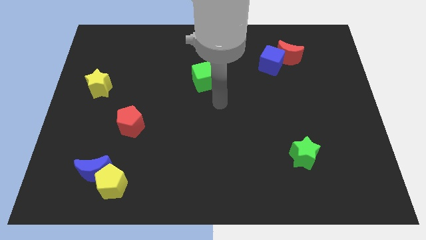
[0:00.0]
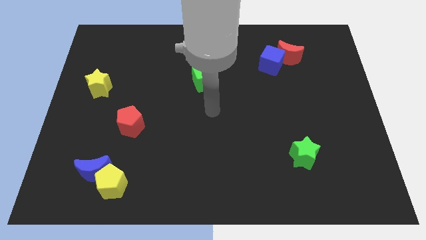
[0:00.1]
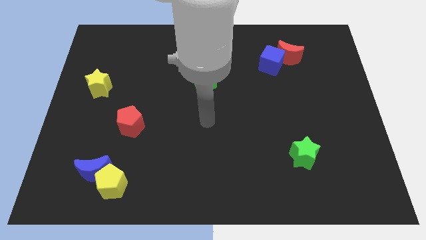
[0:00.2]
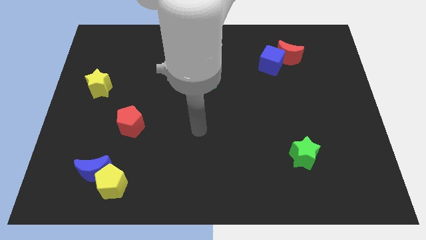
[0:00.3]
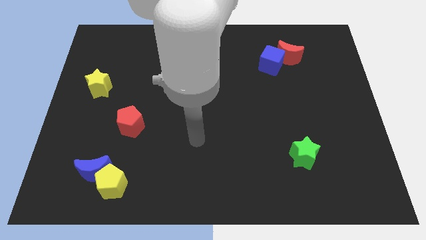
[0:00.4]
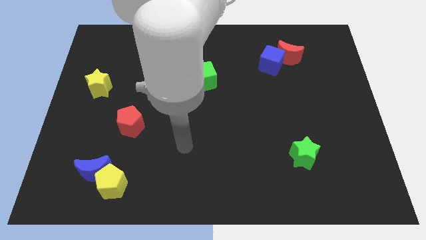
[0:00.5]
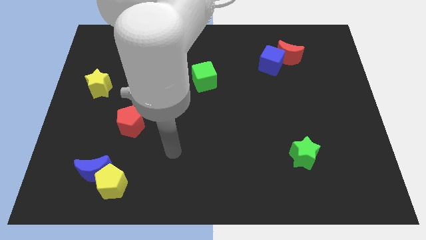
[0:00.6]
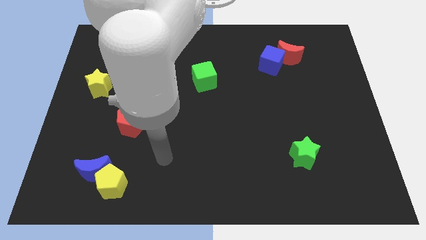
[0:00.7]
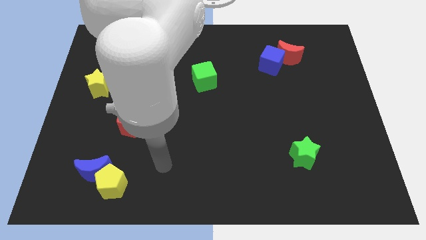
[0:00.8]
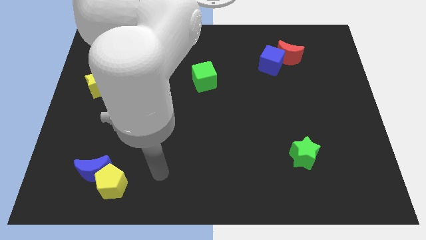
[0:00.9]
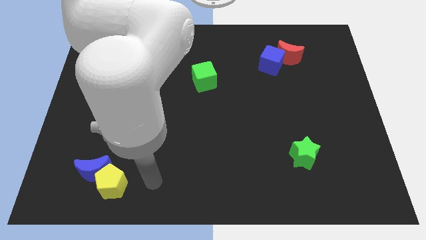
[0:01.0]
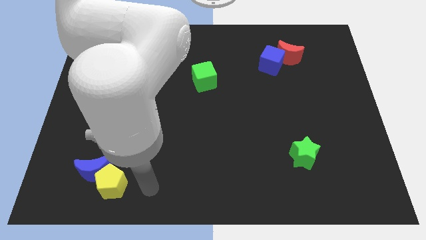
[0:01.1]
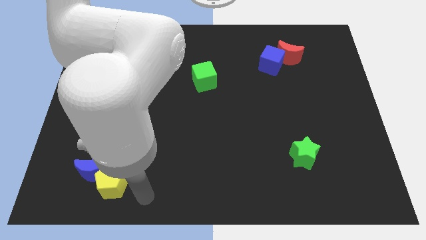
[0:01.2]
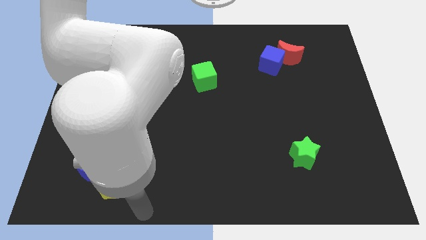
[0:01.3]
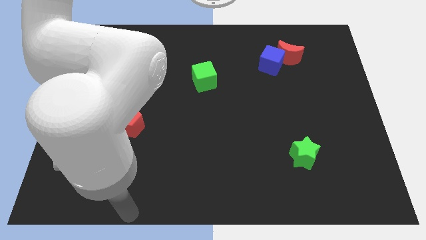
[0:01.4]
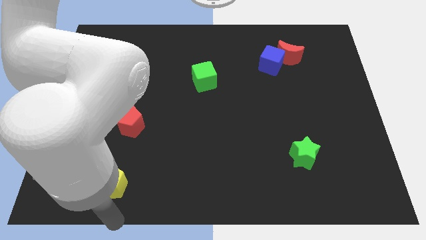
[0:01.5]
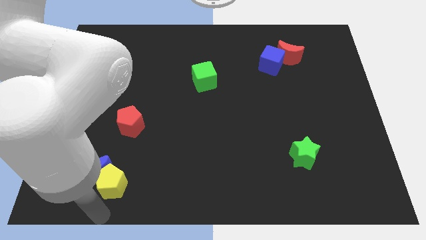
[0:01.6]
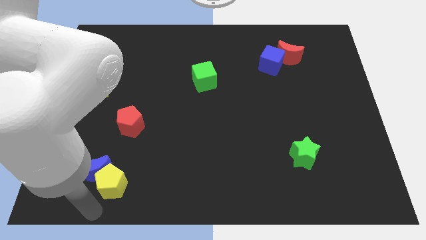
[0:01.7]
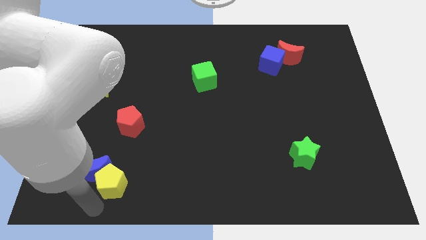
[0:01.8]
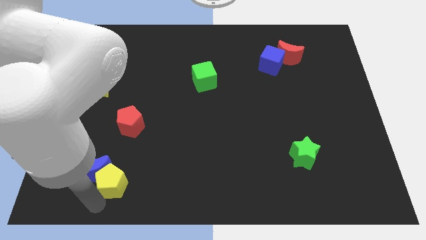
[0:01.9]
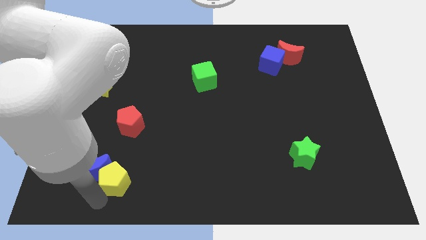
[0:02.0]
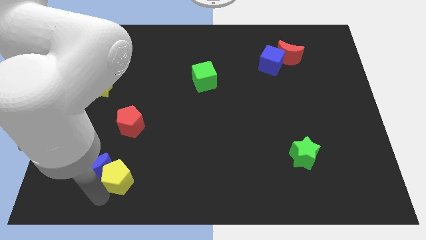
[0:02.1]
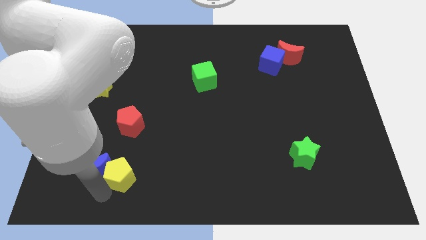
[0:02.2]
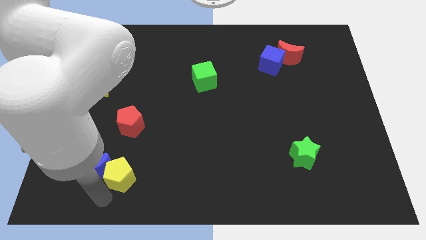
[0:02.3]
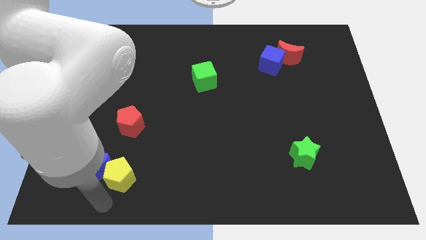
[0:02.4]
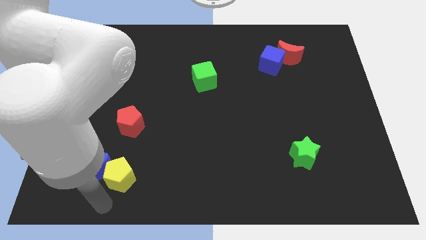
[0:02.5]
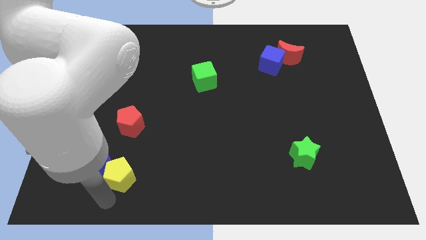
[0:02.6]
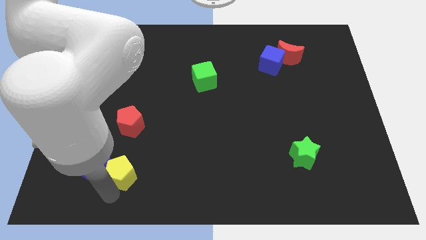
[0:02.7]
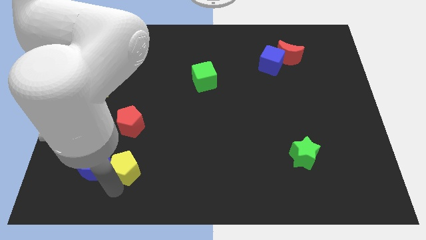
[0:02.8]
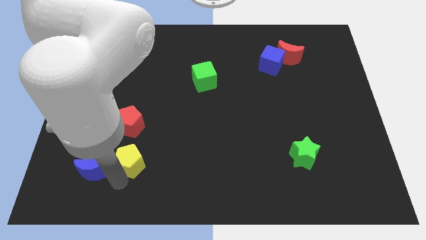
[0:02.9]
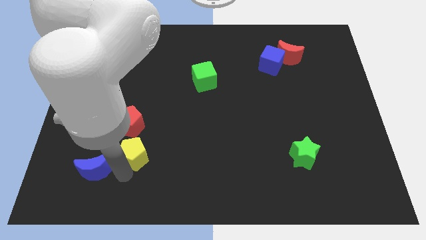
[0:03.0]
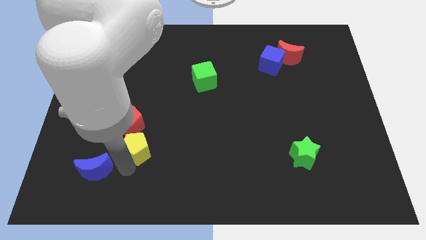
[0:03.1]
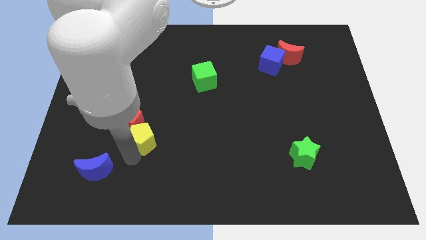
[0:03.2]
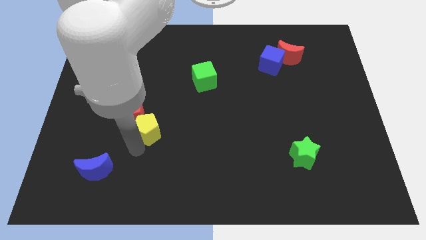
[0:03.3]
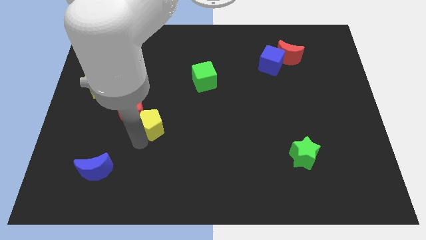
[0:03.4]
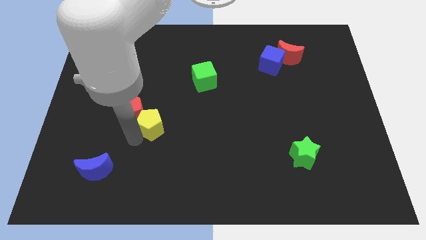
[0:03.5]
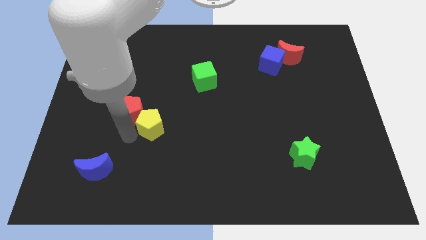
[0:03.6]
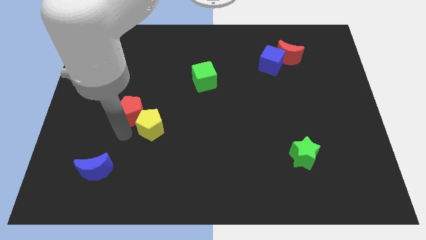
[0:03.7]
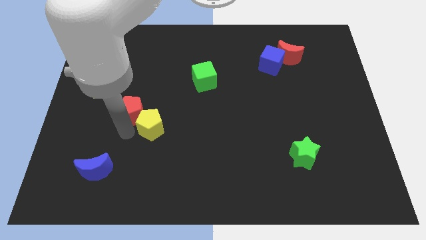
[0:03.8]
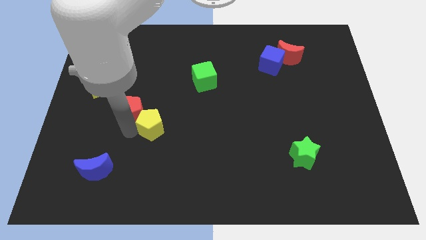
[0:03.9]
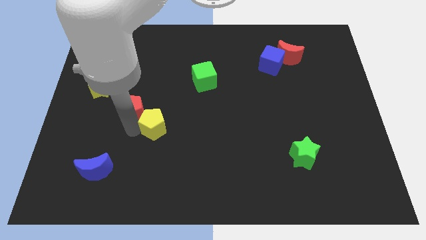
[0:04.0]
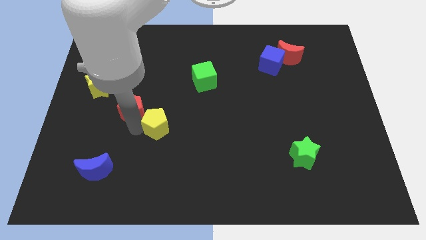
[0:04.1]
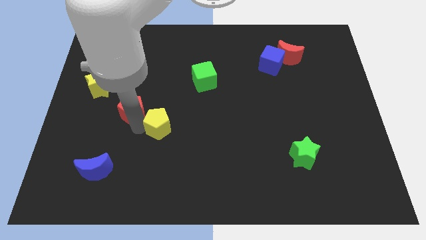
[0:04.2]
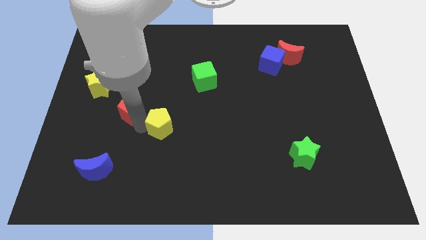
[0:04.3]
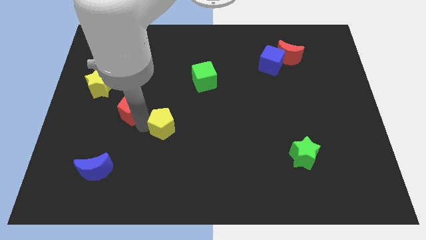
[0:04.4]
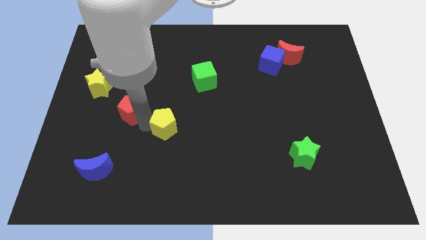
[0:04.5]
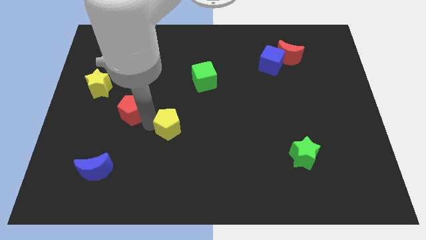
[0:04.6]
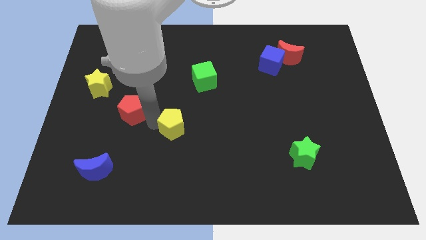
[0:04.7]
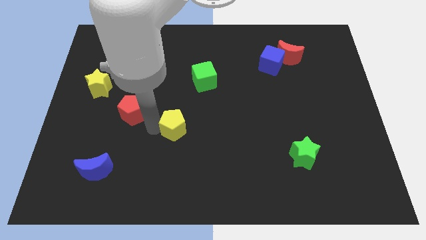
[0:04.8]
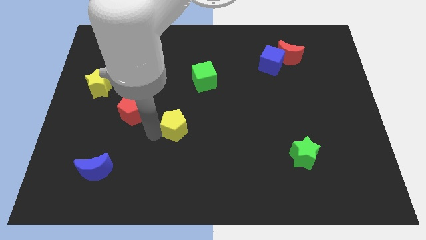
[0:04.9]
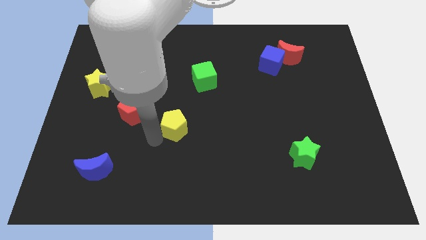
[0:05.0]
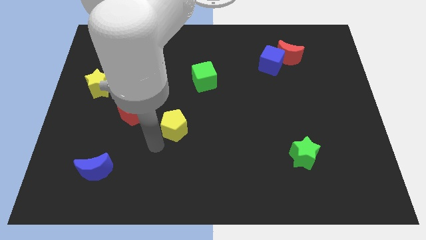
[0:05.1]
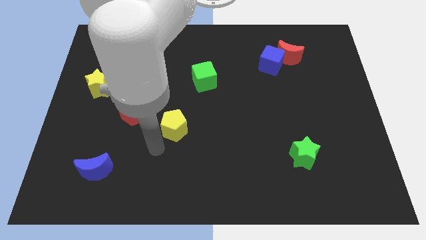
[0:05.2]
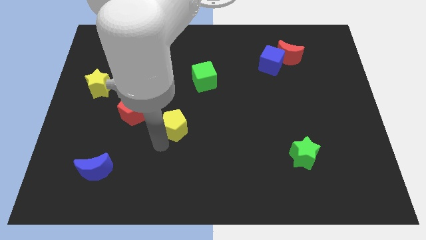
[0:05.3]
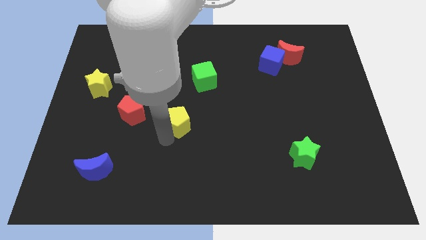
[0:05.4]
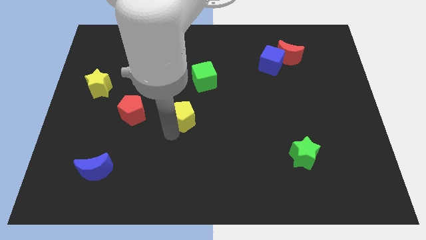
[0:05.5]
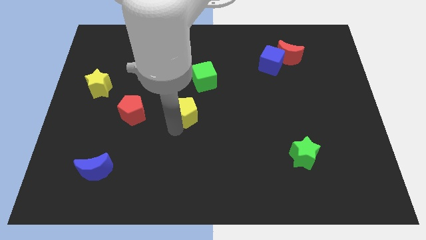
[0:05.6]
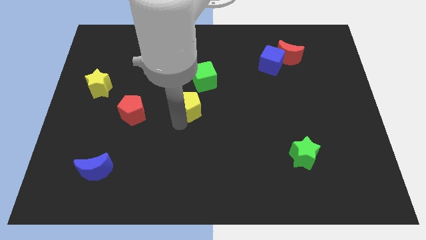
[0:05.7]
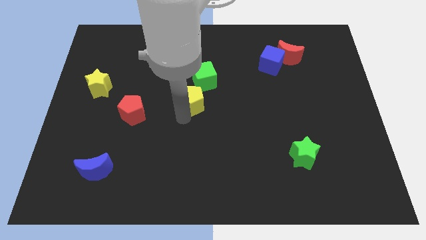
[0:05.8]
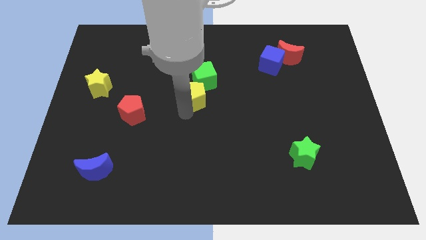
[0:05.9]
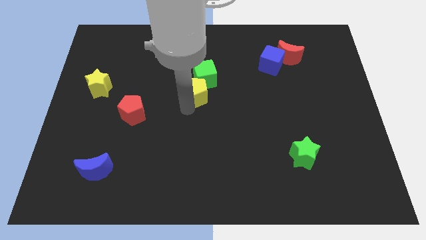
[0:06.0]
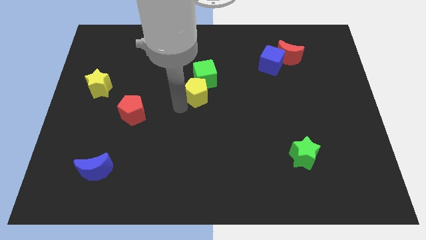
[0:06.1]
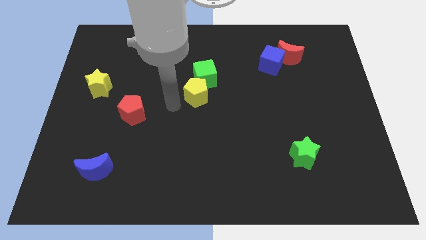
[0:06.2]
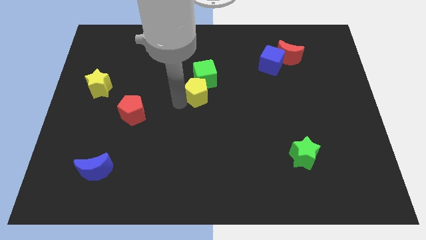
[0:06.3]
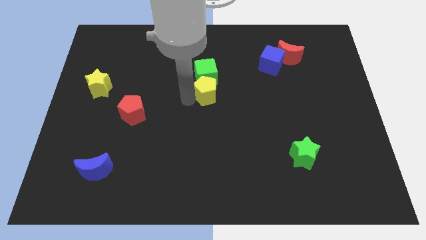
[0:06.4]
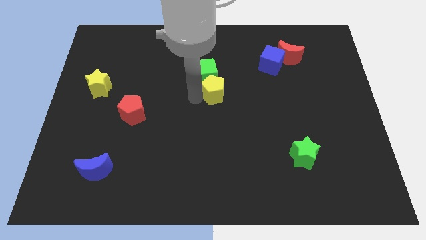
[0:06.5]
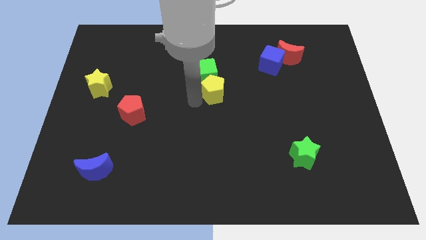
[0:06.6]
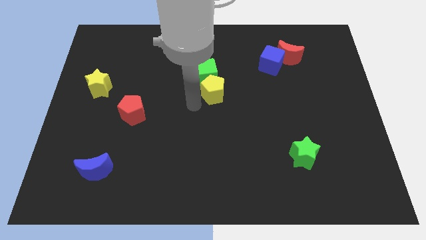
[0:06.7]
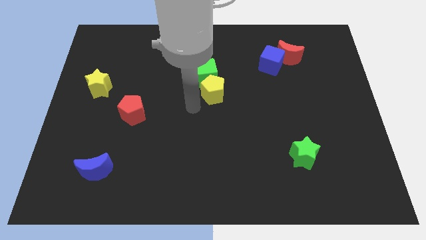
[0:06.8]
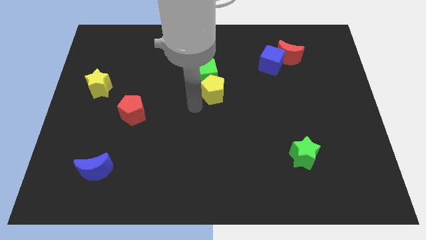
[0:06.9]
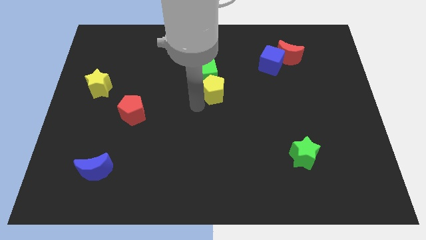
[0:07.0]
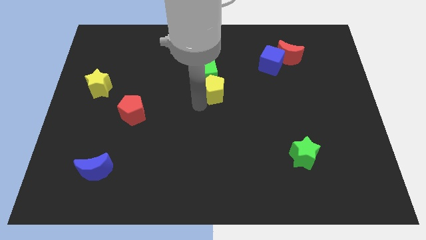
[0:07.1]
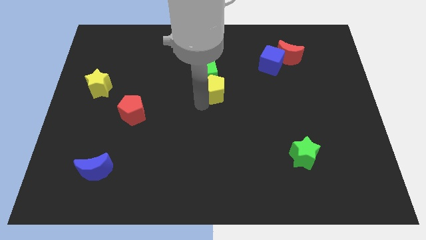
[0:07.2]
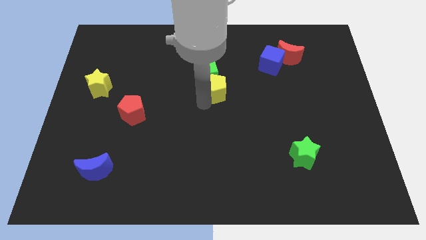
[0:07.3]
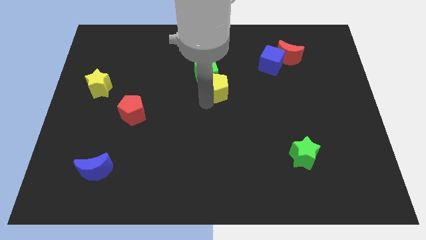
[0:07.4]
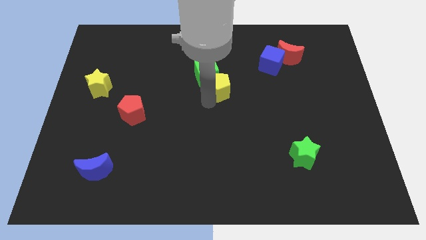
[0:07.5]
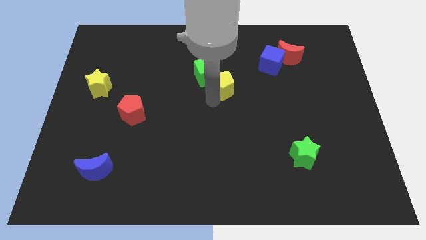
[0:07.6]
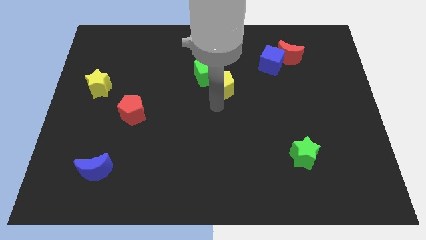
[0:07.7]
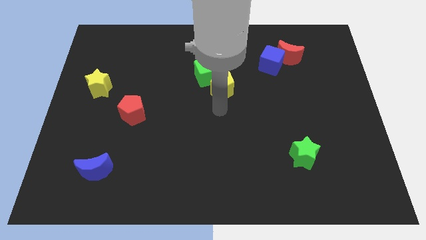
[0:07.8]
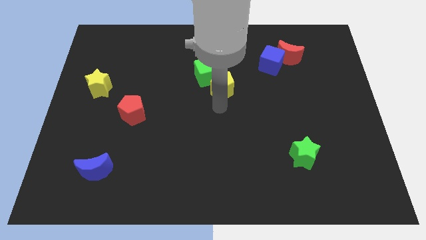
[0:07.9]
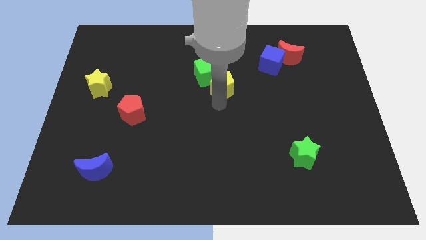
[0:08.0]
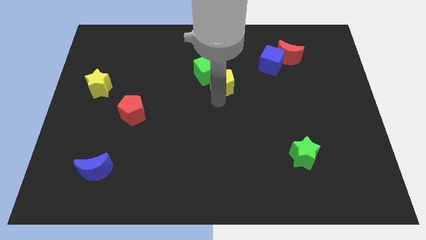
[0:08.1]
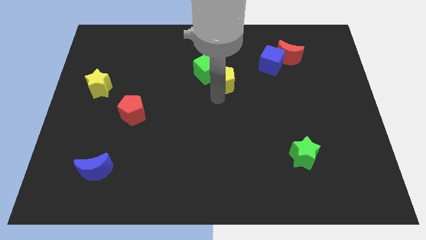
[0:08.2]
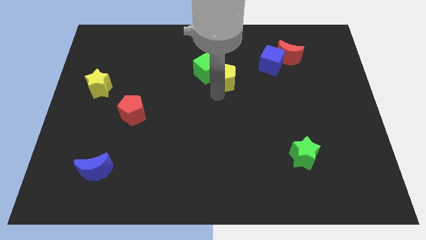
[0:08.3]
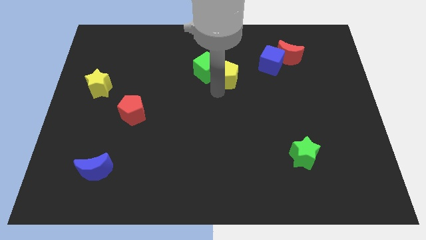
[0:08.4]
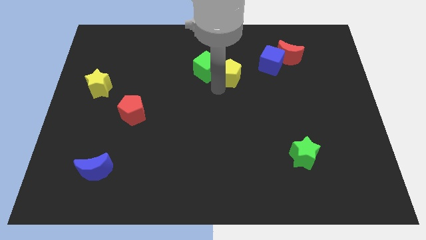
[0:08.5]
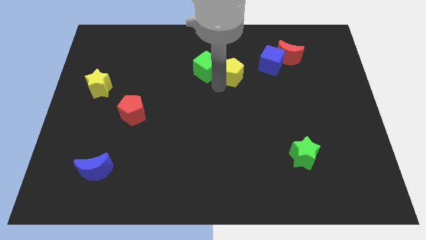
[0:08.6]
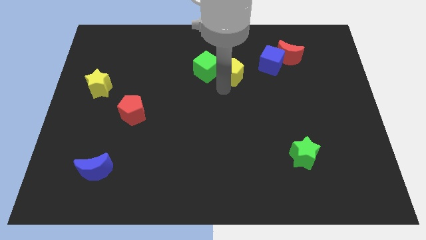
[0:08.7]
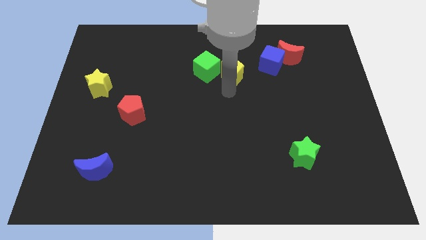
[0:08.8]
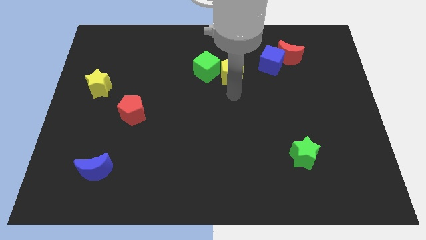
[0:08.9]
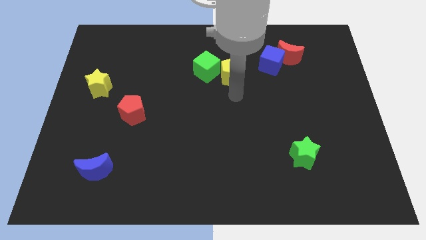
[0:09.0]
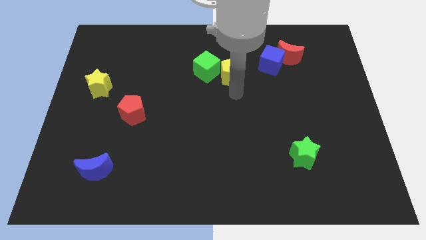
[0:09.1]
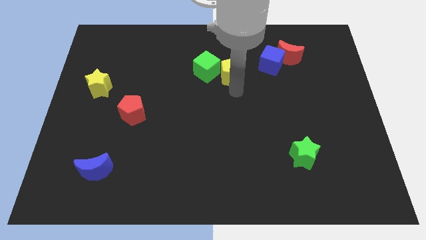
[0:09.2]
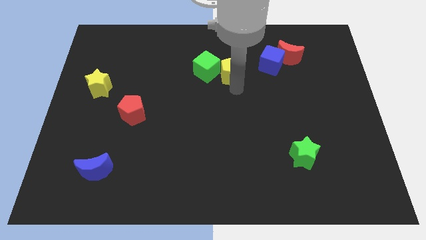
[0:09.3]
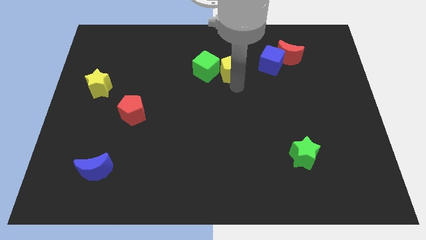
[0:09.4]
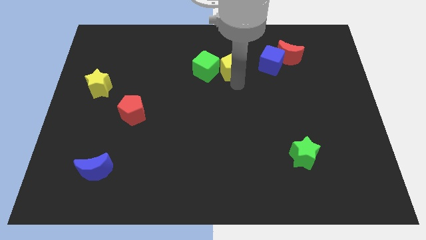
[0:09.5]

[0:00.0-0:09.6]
slide the yellow pentagon to the top right of the green cube
